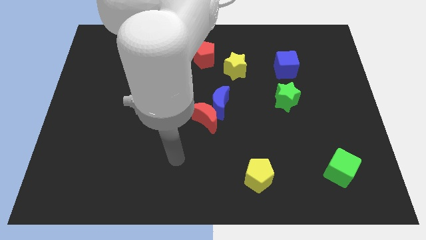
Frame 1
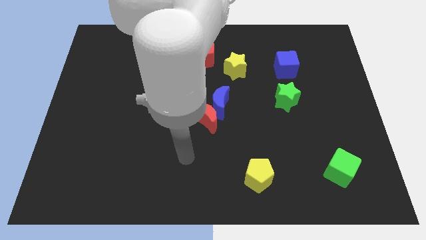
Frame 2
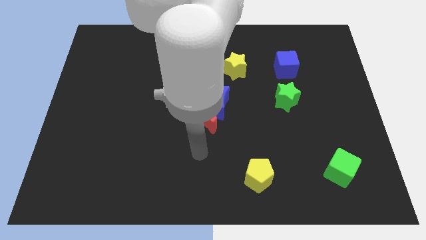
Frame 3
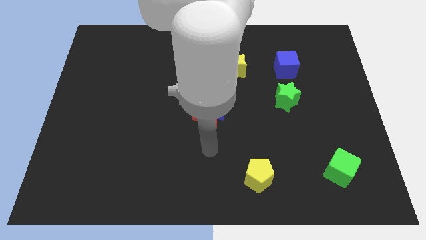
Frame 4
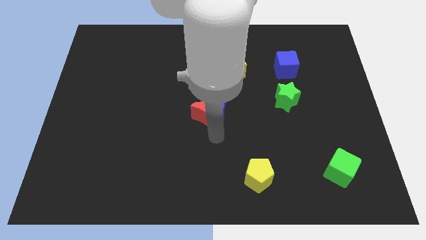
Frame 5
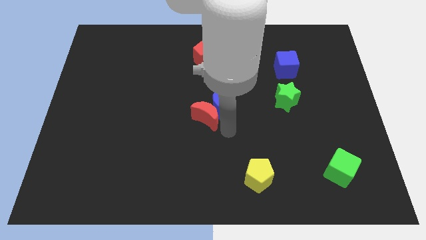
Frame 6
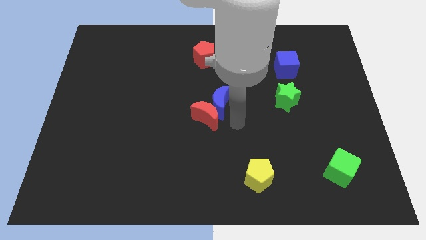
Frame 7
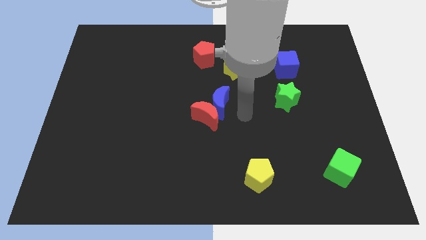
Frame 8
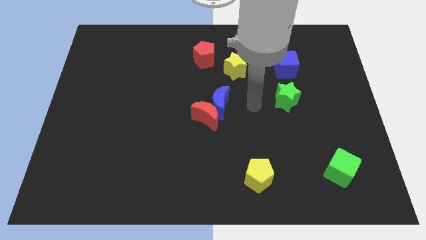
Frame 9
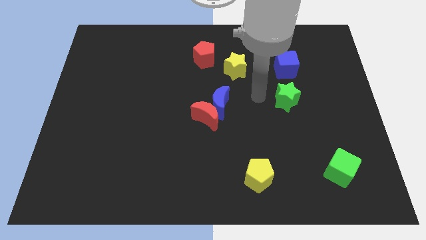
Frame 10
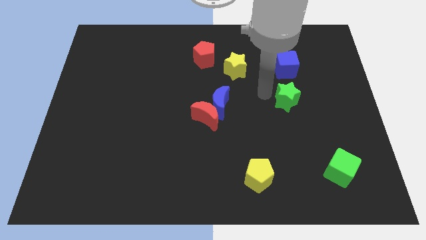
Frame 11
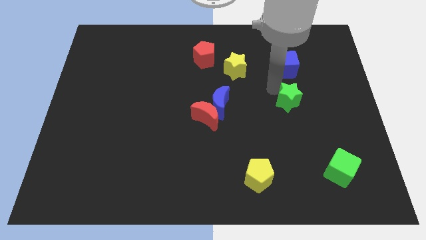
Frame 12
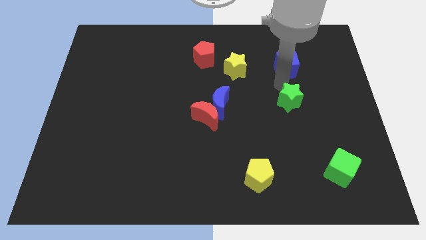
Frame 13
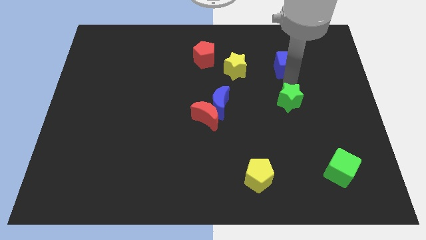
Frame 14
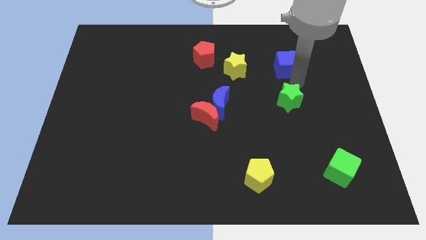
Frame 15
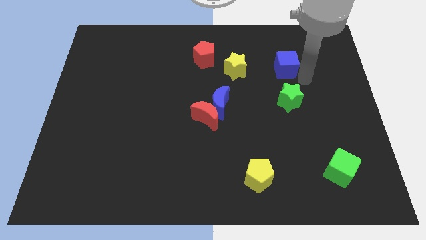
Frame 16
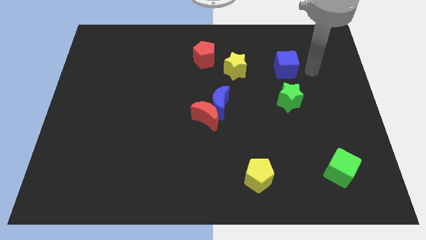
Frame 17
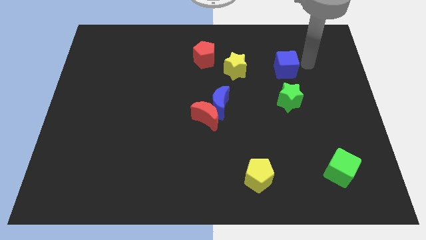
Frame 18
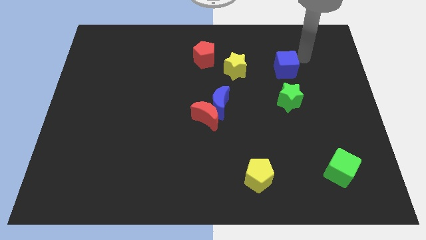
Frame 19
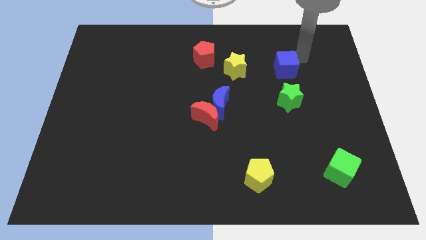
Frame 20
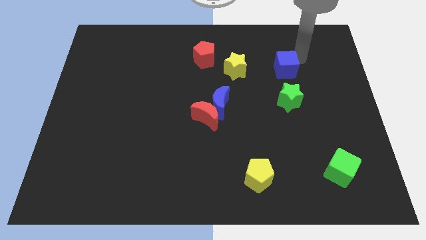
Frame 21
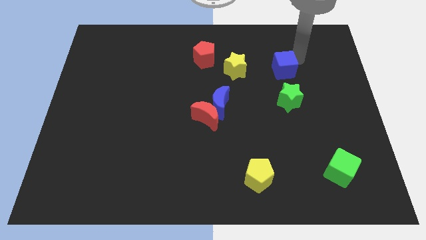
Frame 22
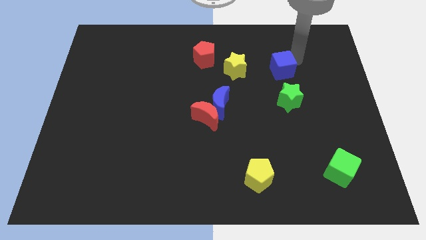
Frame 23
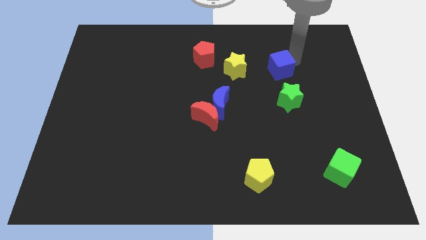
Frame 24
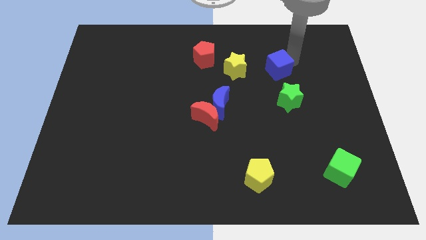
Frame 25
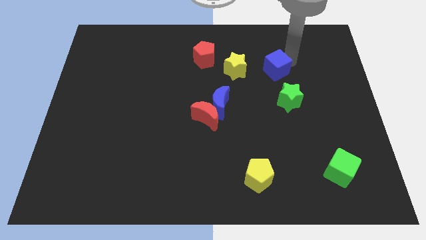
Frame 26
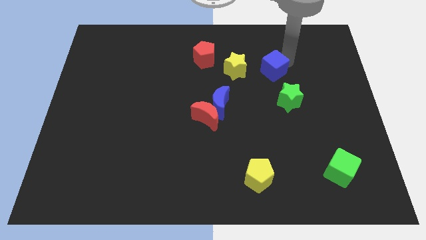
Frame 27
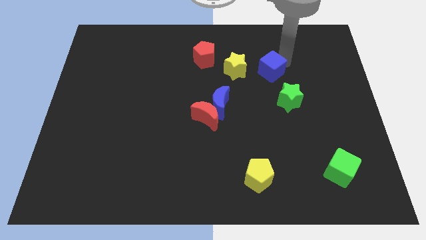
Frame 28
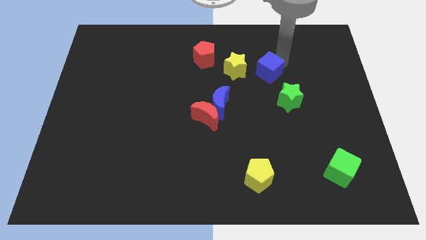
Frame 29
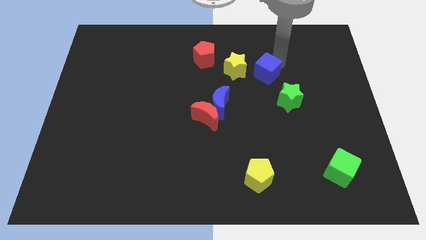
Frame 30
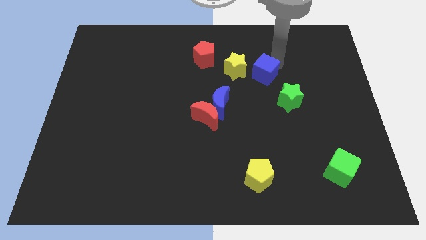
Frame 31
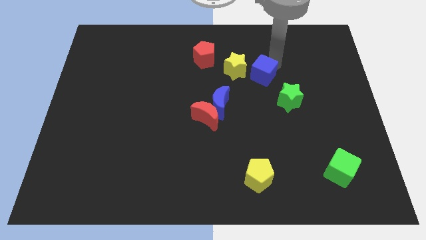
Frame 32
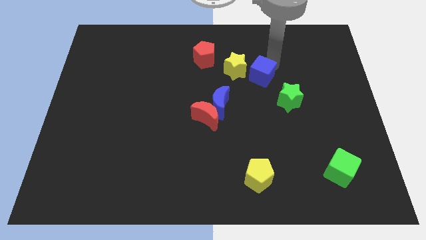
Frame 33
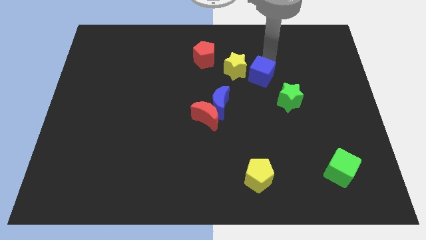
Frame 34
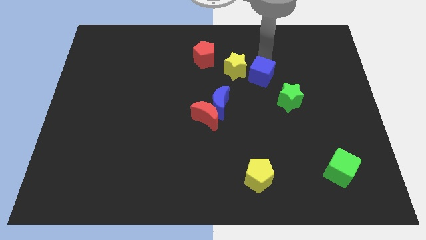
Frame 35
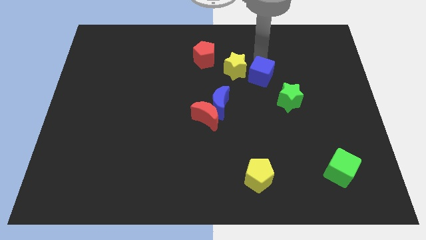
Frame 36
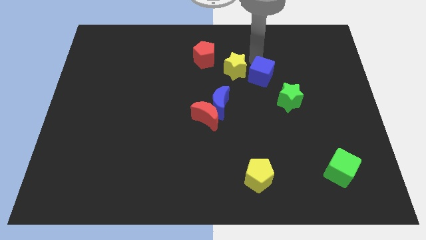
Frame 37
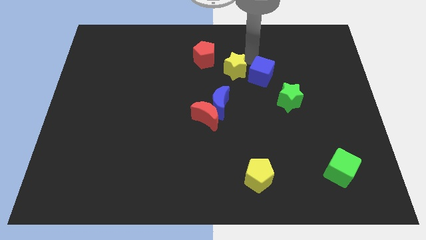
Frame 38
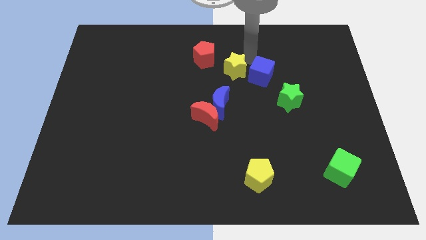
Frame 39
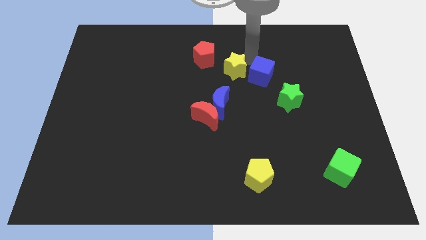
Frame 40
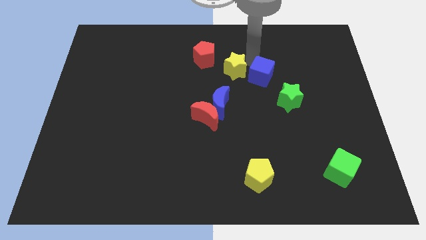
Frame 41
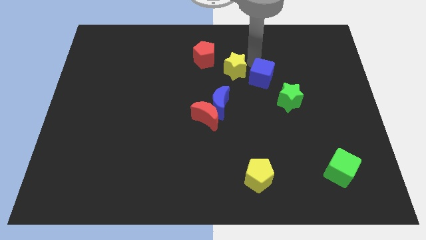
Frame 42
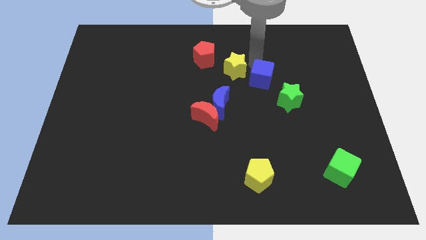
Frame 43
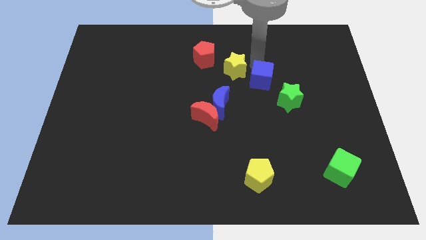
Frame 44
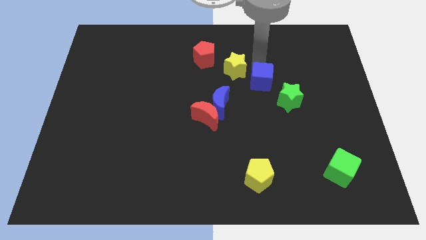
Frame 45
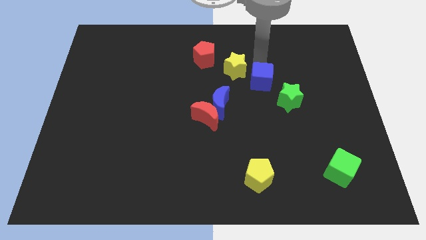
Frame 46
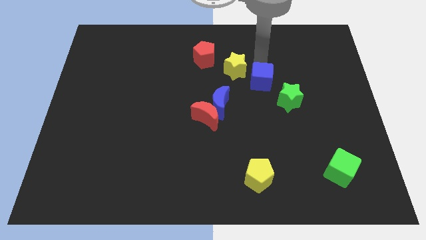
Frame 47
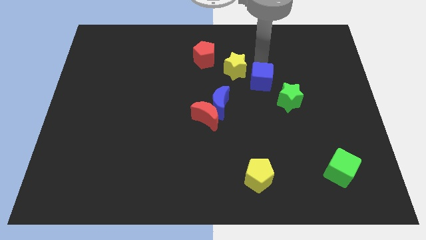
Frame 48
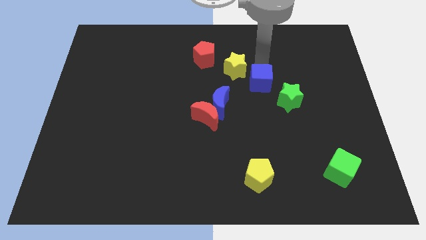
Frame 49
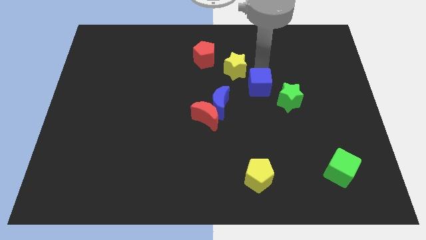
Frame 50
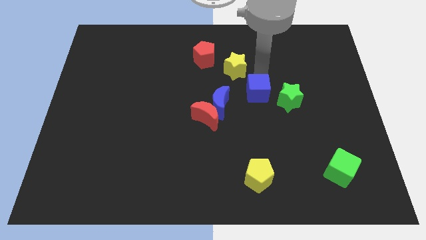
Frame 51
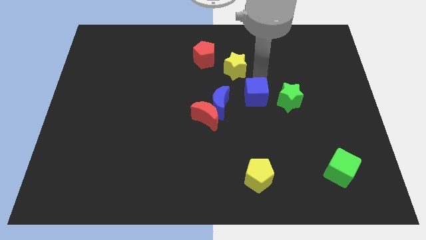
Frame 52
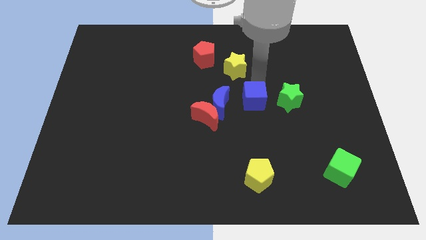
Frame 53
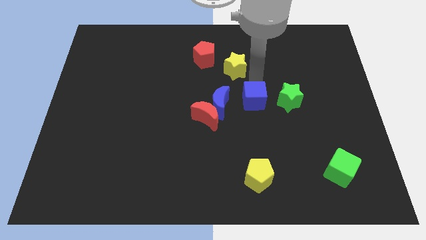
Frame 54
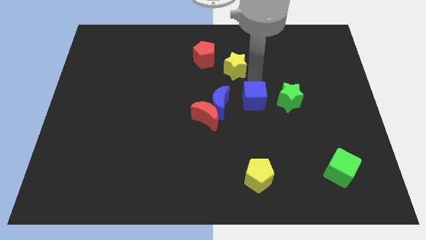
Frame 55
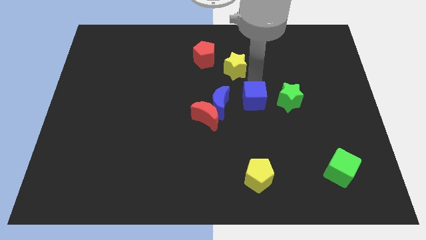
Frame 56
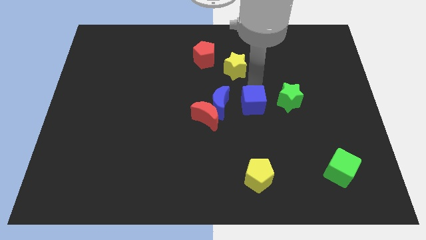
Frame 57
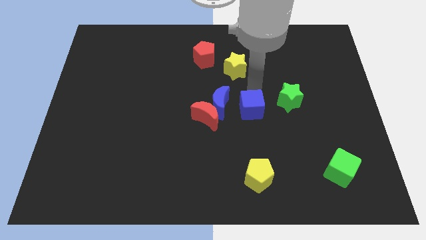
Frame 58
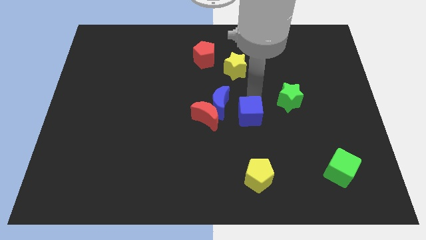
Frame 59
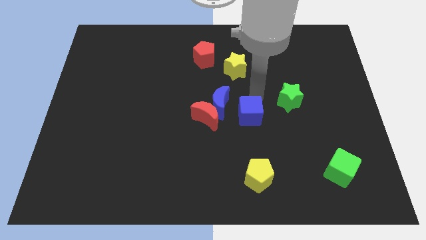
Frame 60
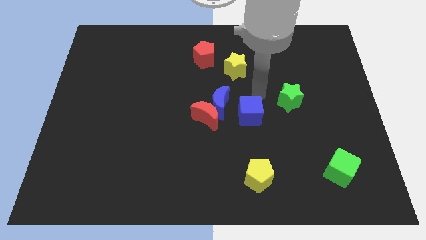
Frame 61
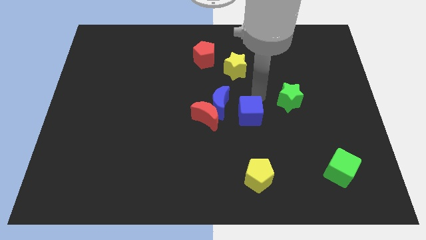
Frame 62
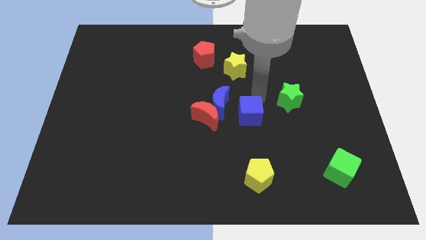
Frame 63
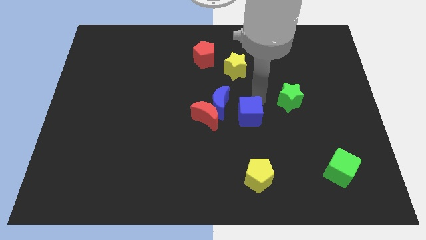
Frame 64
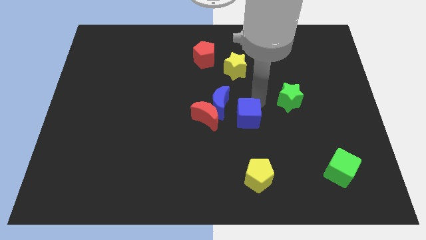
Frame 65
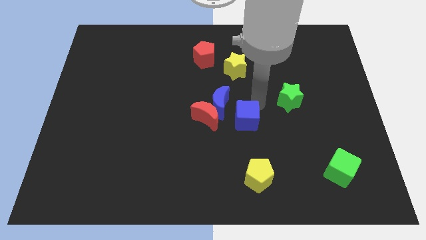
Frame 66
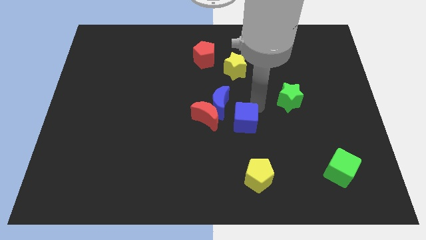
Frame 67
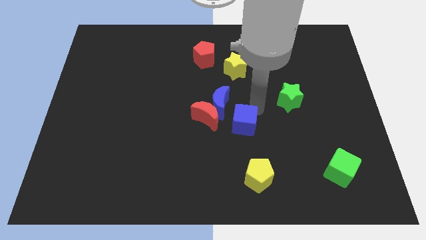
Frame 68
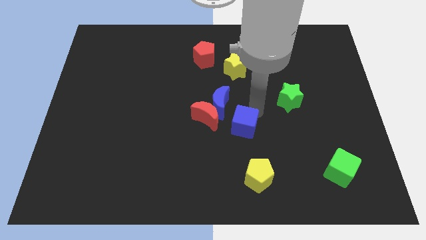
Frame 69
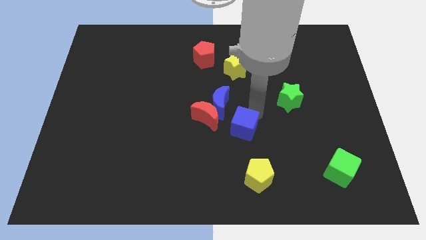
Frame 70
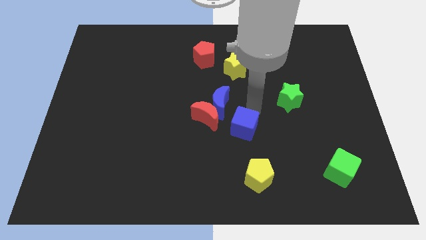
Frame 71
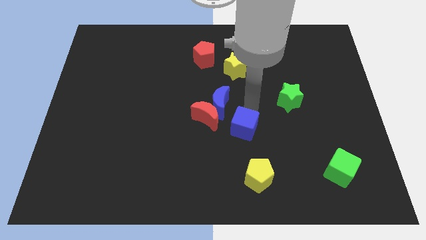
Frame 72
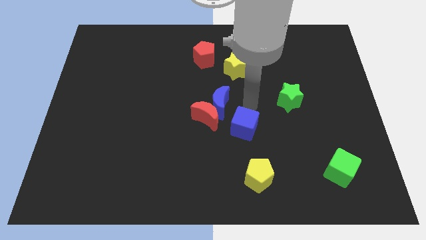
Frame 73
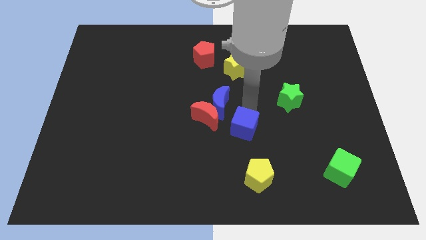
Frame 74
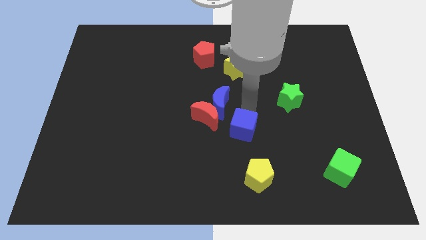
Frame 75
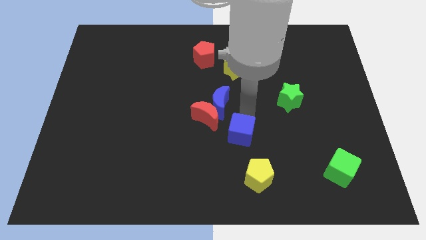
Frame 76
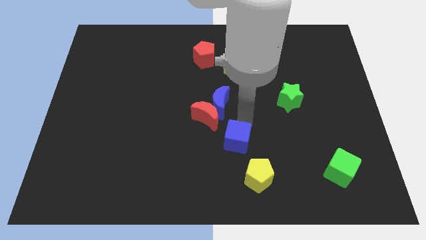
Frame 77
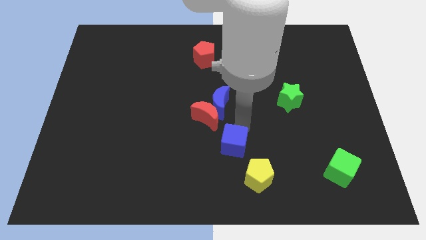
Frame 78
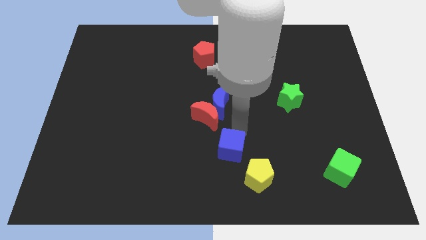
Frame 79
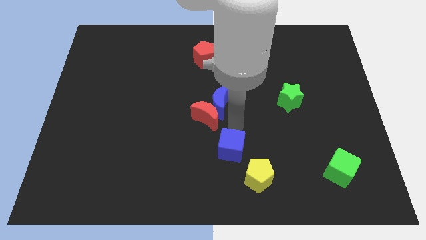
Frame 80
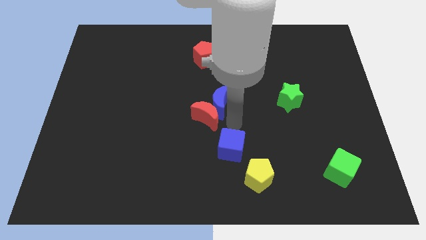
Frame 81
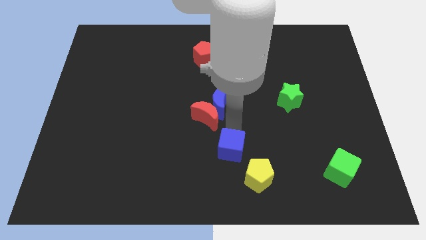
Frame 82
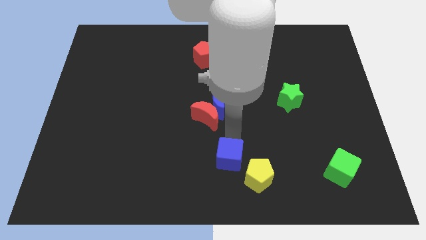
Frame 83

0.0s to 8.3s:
put the blue cube to the bottom

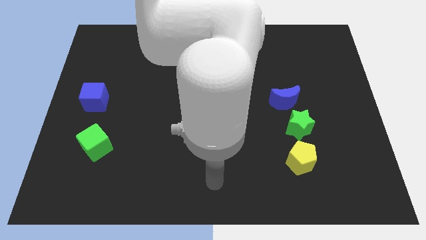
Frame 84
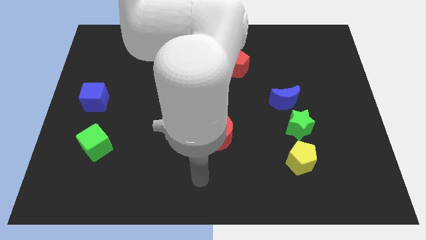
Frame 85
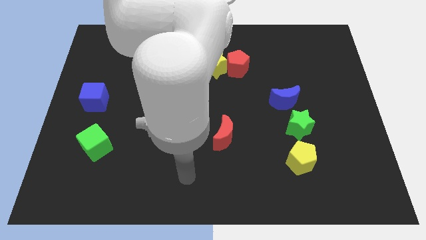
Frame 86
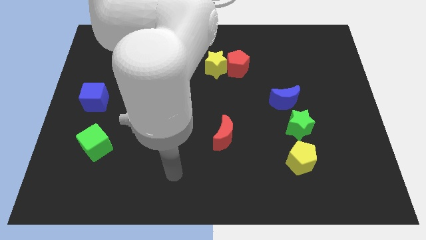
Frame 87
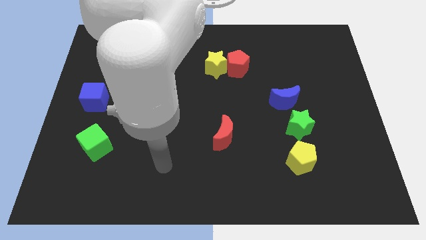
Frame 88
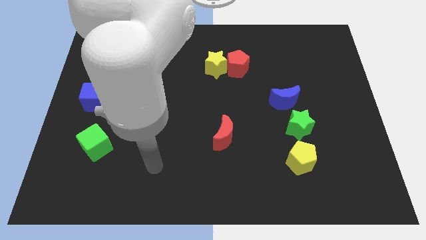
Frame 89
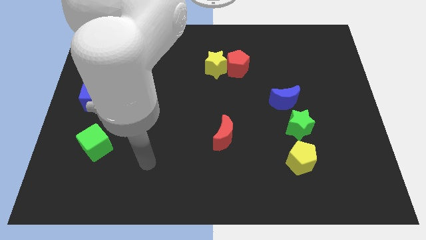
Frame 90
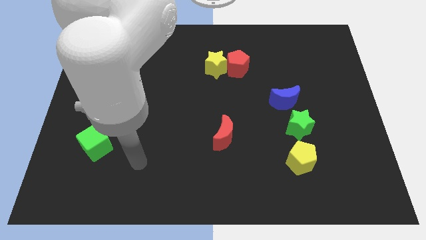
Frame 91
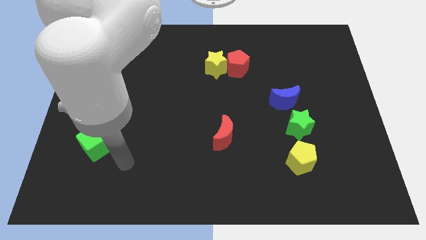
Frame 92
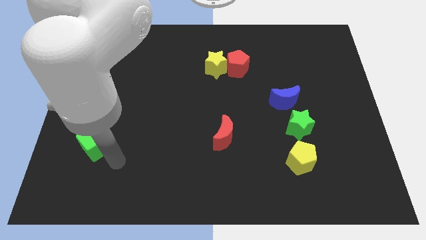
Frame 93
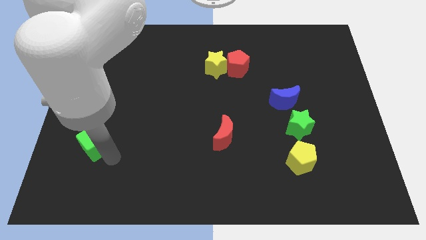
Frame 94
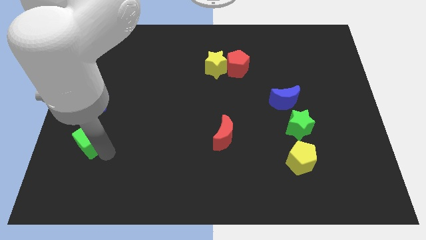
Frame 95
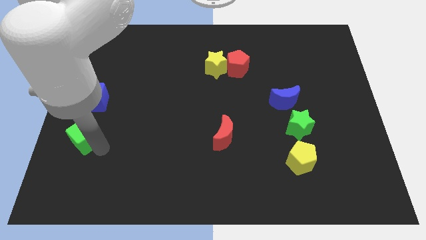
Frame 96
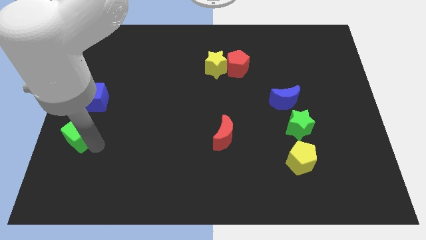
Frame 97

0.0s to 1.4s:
slide the green cube to the center left
